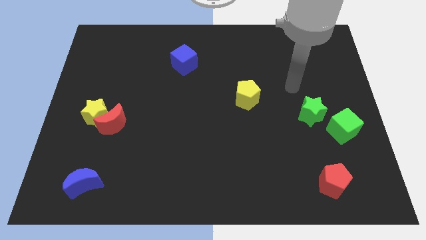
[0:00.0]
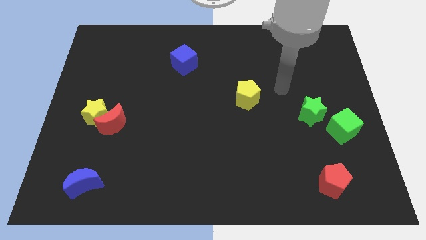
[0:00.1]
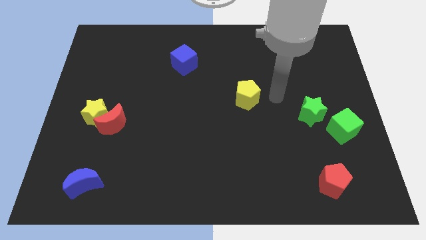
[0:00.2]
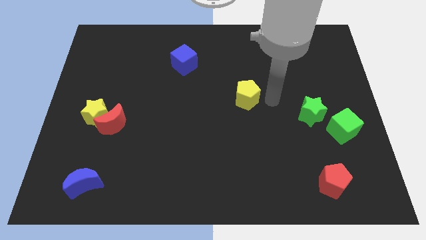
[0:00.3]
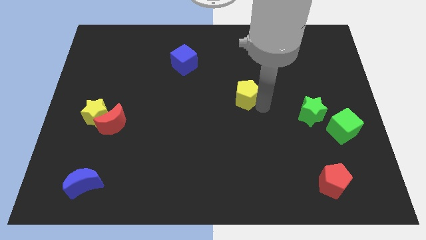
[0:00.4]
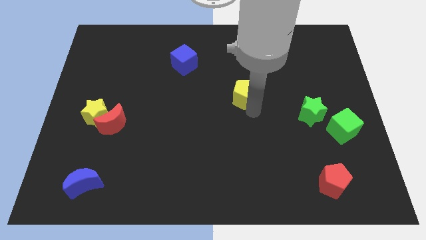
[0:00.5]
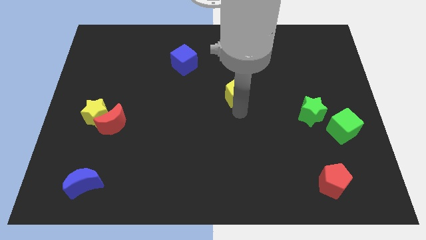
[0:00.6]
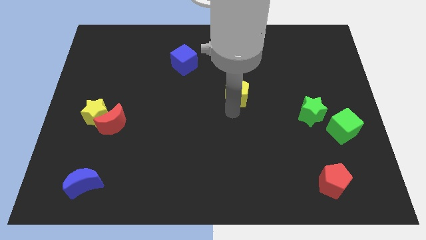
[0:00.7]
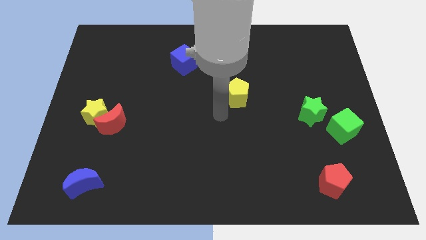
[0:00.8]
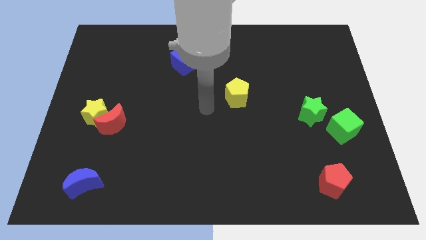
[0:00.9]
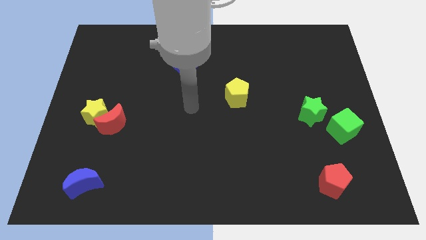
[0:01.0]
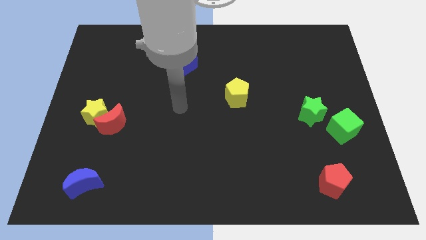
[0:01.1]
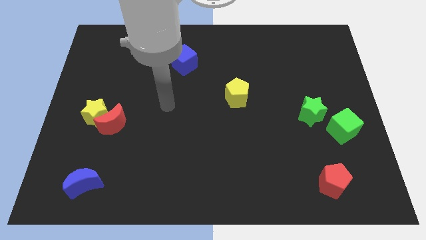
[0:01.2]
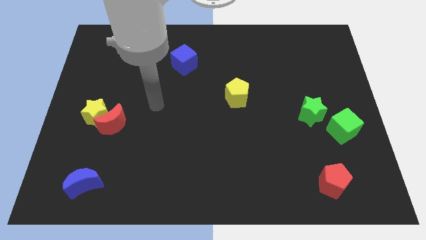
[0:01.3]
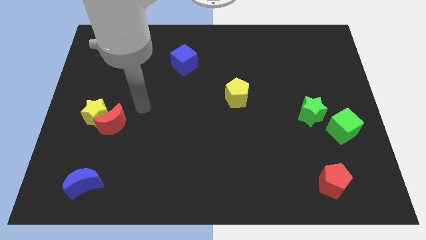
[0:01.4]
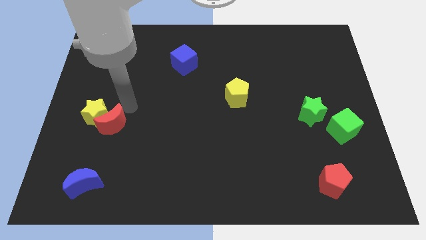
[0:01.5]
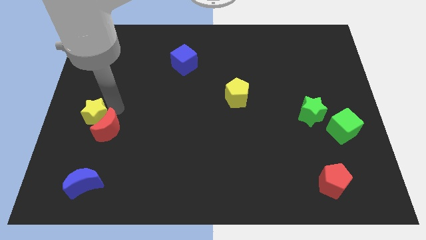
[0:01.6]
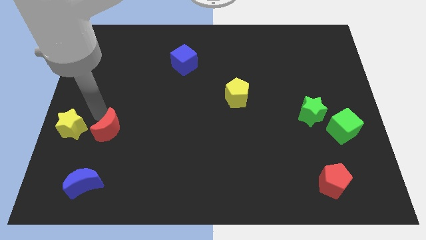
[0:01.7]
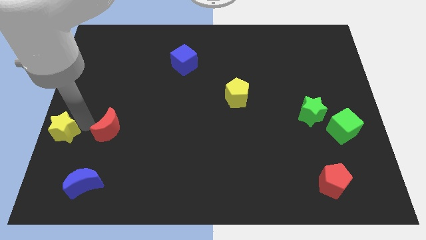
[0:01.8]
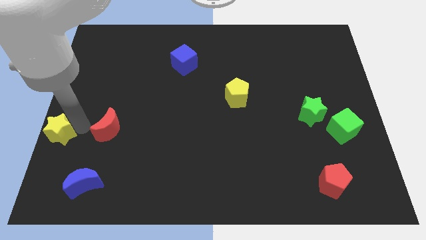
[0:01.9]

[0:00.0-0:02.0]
move the red moon away from the yellow star

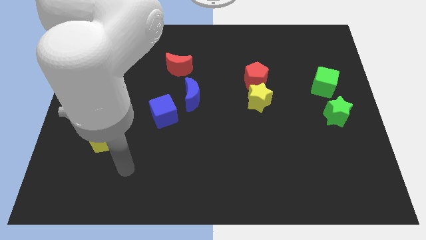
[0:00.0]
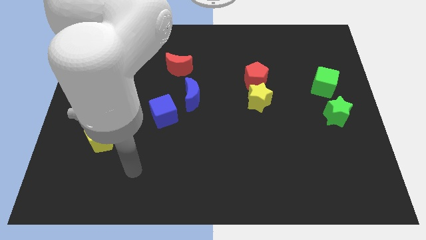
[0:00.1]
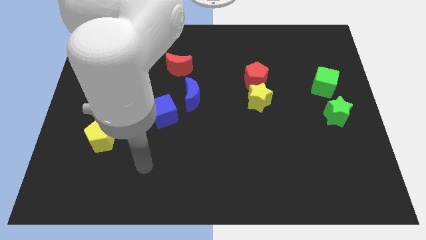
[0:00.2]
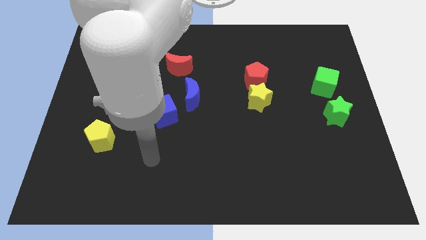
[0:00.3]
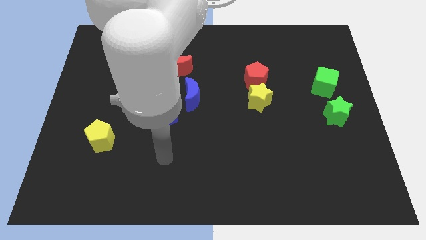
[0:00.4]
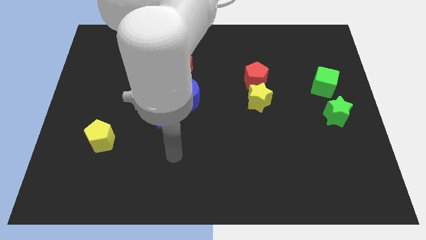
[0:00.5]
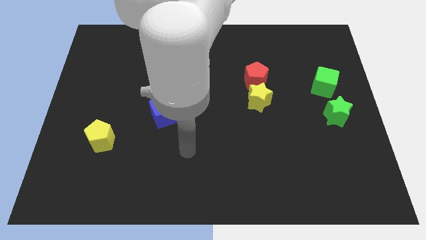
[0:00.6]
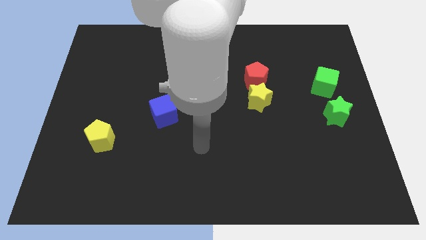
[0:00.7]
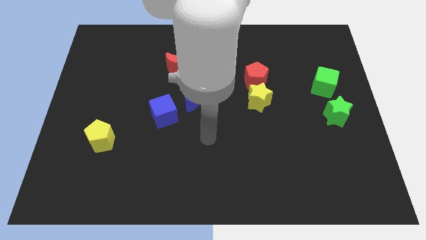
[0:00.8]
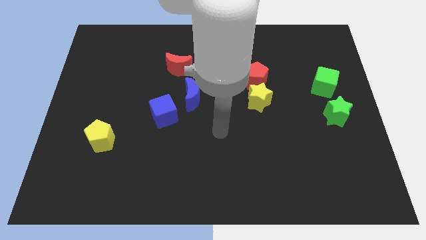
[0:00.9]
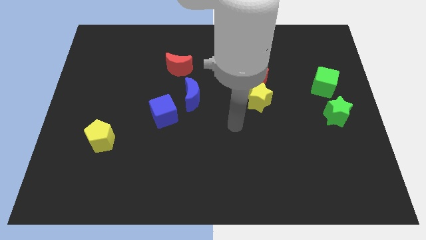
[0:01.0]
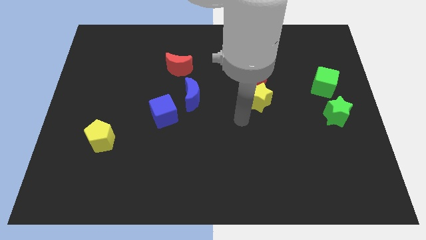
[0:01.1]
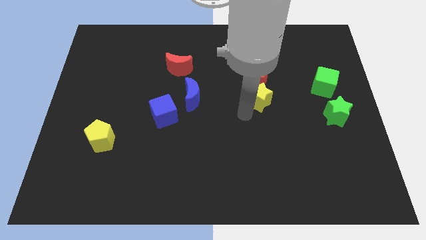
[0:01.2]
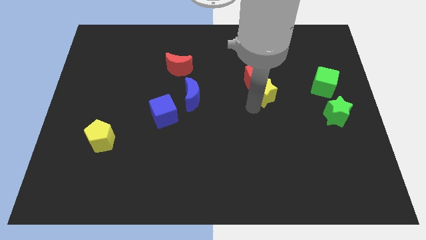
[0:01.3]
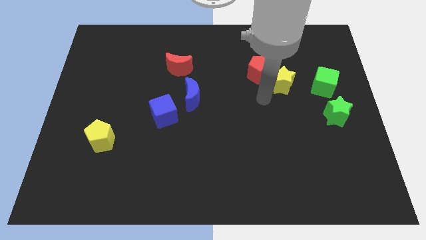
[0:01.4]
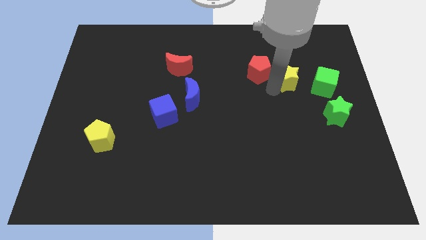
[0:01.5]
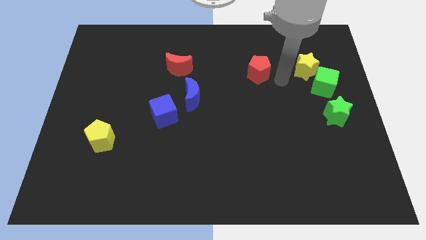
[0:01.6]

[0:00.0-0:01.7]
move the red pentagon away from the yellow star

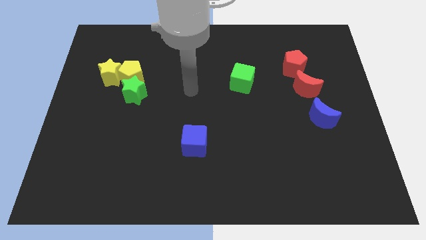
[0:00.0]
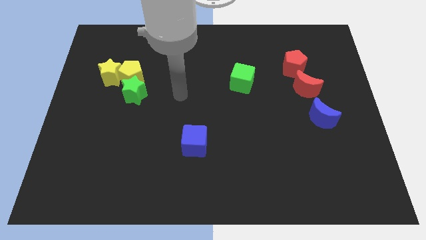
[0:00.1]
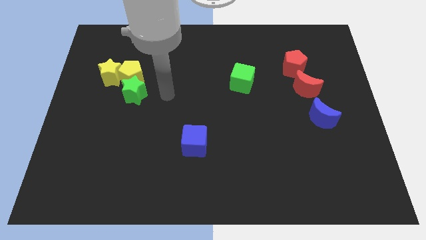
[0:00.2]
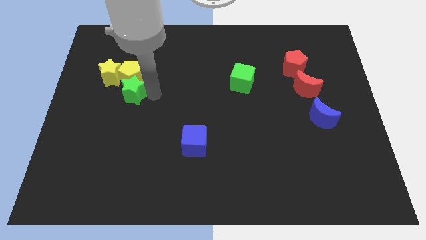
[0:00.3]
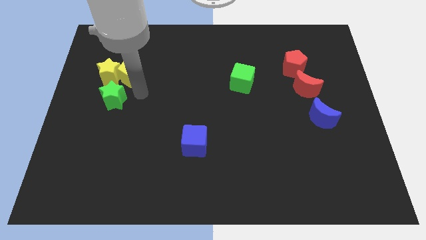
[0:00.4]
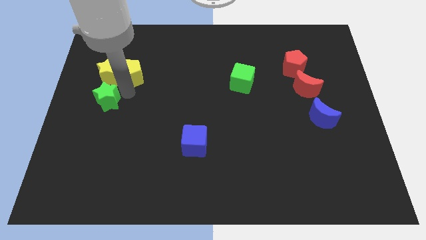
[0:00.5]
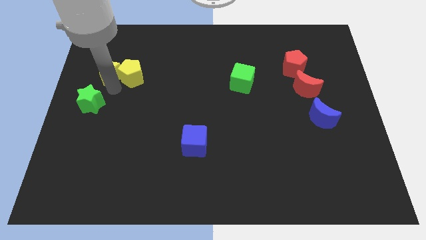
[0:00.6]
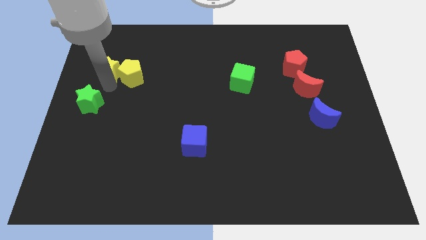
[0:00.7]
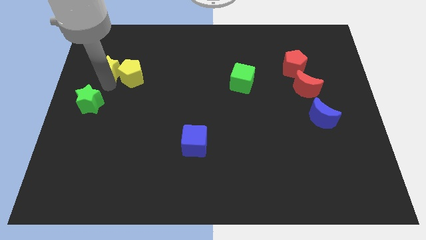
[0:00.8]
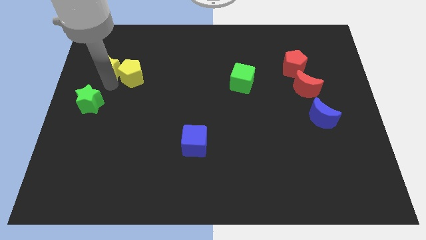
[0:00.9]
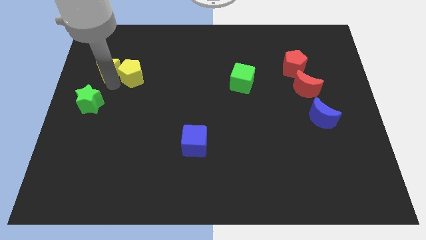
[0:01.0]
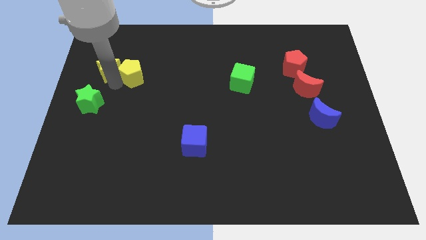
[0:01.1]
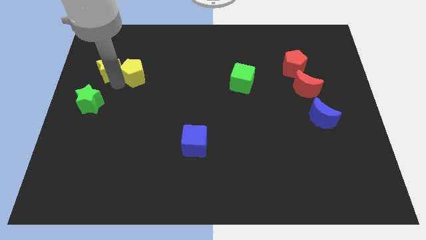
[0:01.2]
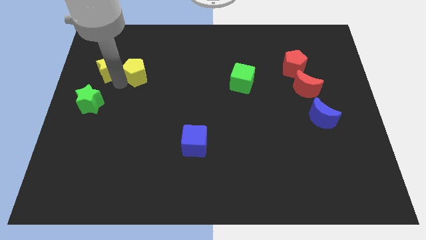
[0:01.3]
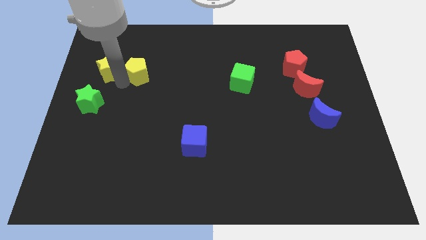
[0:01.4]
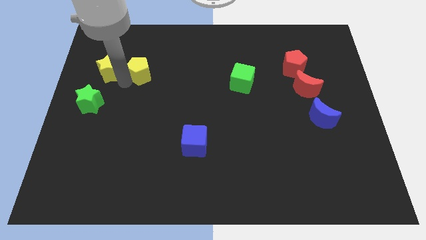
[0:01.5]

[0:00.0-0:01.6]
separate the yellow pentagon from the yellow star and green star

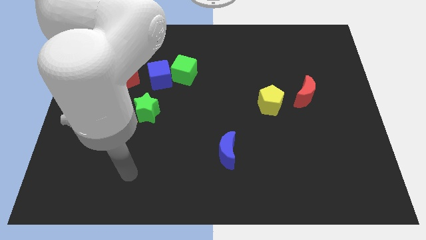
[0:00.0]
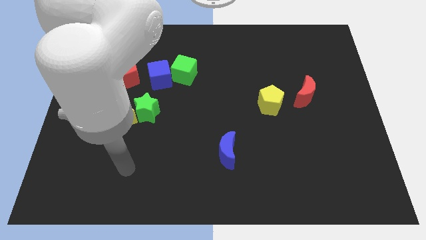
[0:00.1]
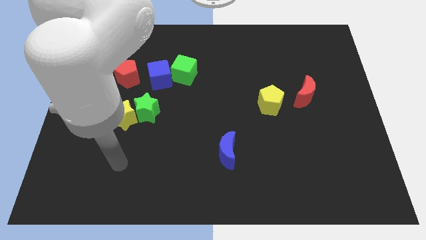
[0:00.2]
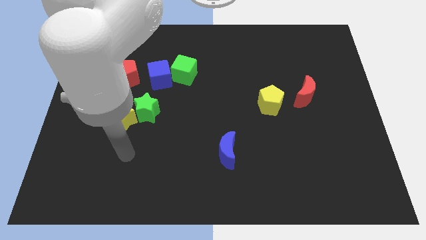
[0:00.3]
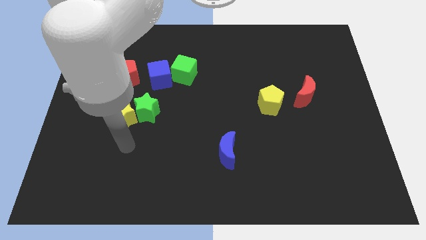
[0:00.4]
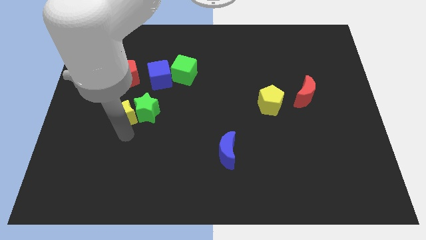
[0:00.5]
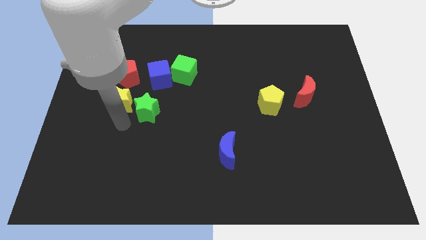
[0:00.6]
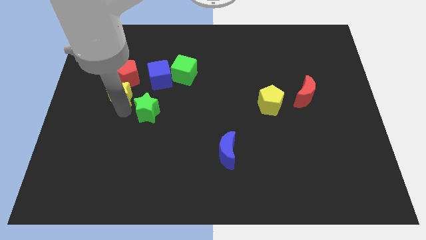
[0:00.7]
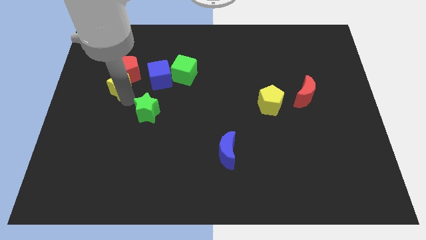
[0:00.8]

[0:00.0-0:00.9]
pull the green star apart from the yellow star

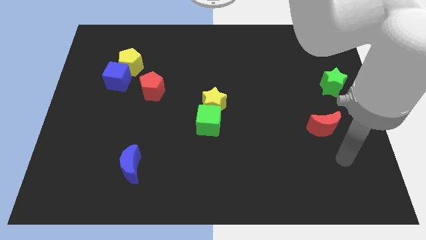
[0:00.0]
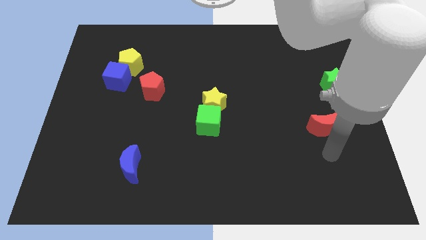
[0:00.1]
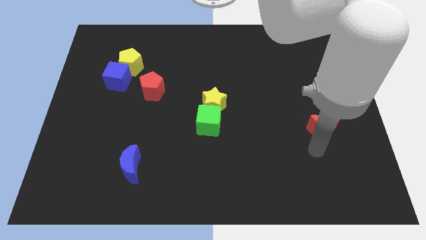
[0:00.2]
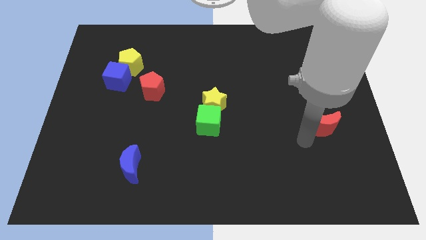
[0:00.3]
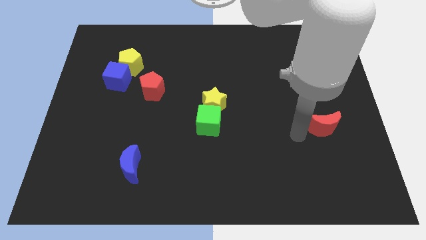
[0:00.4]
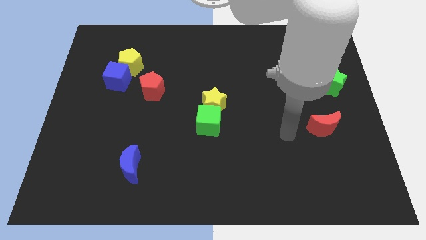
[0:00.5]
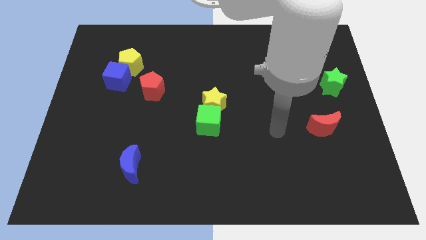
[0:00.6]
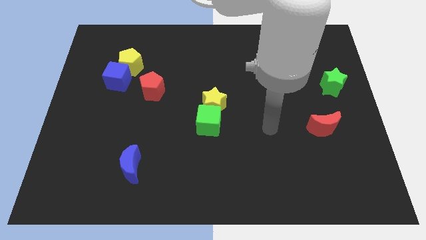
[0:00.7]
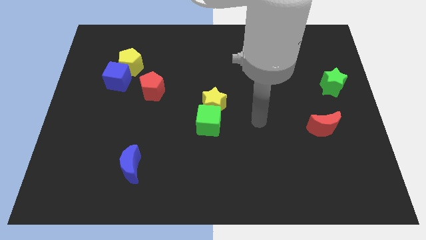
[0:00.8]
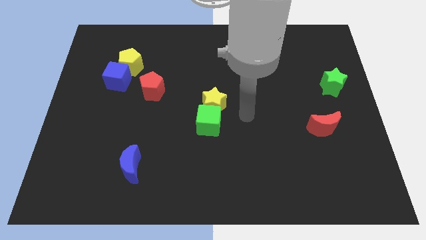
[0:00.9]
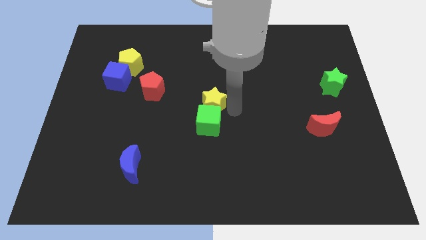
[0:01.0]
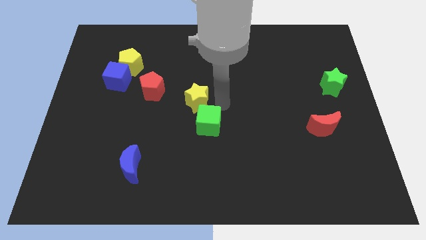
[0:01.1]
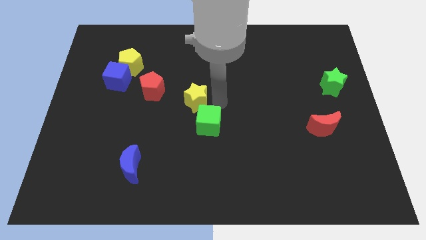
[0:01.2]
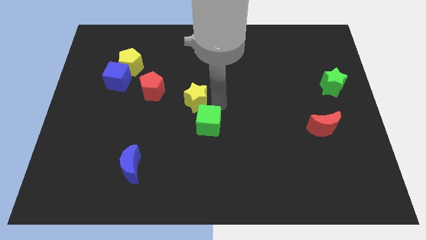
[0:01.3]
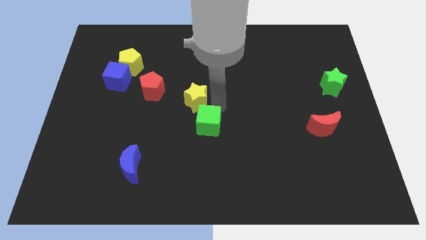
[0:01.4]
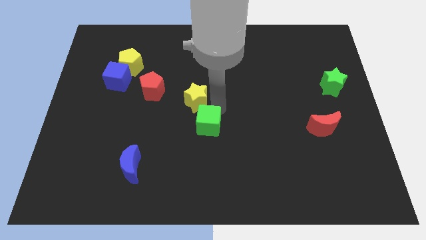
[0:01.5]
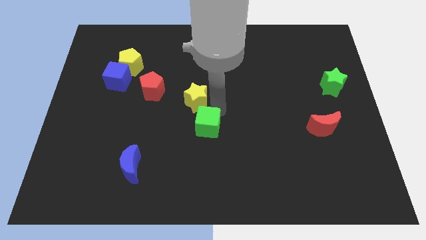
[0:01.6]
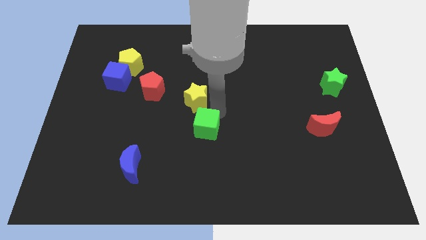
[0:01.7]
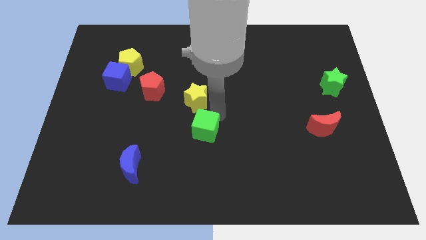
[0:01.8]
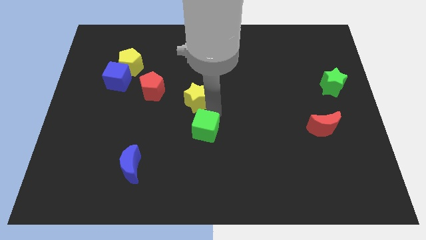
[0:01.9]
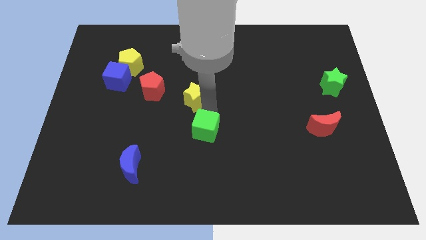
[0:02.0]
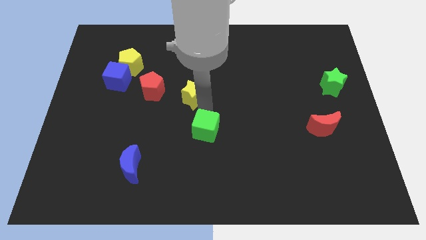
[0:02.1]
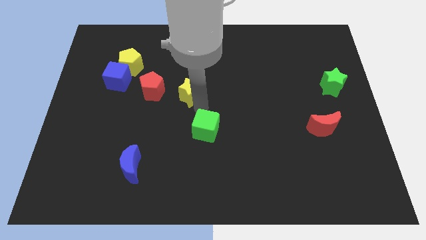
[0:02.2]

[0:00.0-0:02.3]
move the green cube away from the yellow star

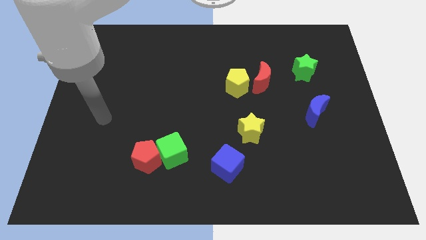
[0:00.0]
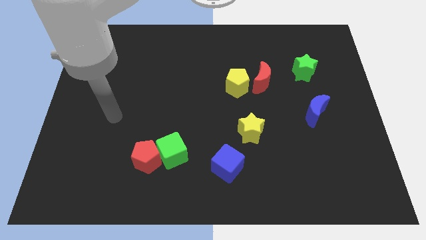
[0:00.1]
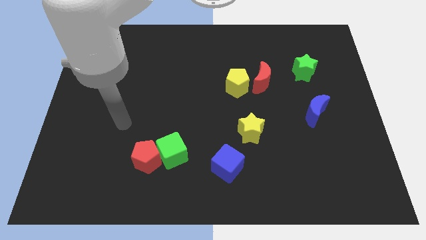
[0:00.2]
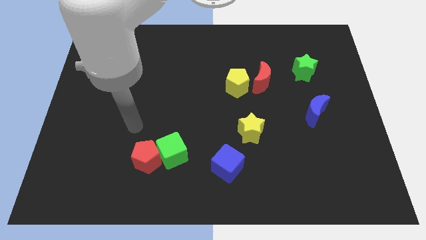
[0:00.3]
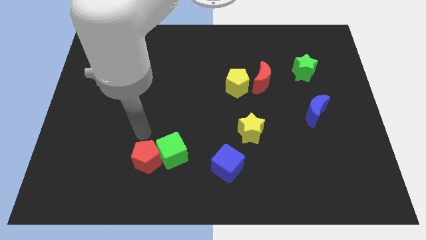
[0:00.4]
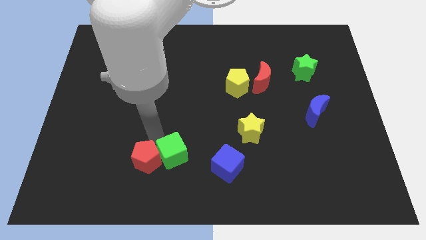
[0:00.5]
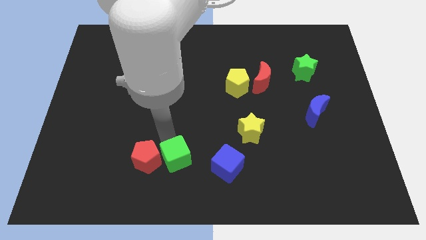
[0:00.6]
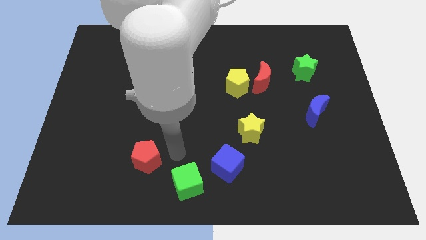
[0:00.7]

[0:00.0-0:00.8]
separate the red pentagon from the green cube

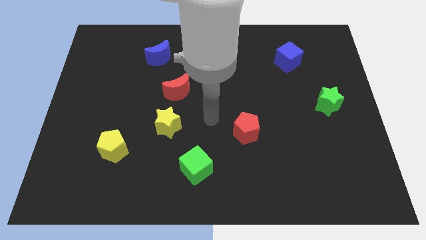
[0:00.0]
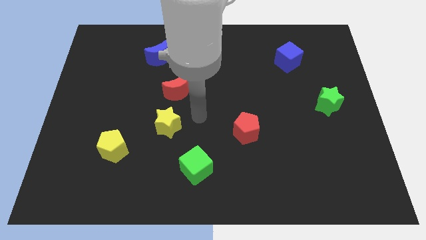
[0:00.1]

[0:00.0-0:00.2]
pull the red moon apart from the yellow star
